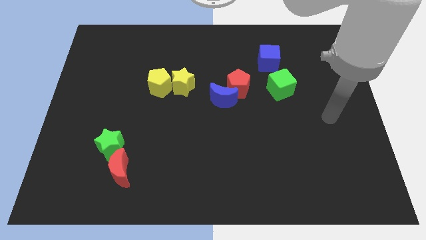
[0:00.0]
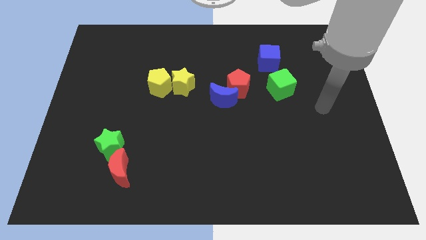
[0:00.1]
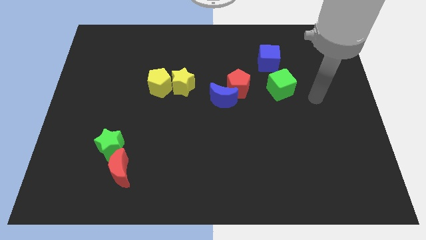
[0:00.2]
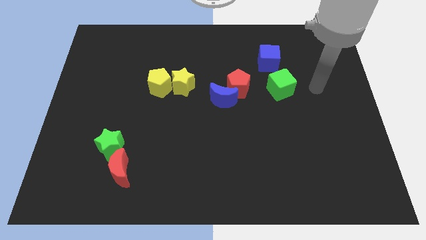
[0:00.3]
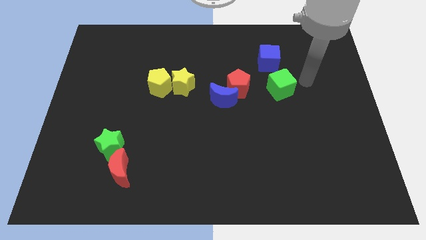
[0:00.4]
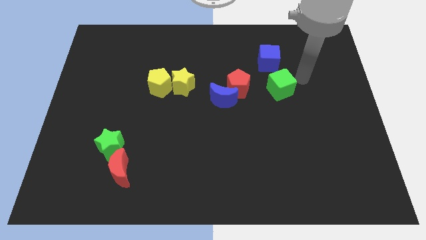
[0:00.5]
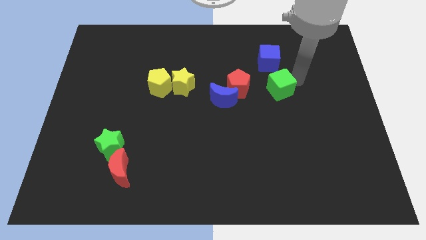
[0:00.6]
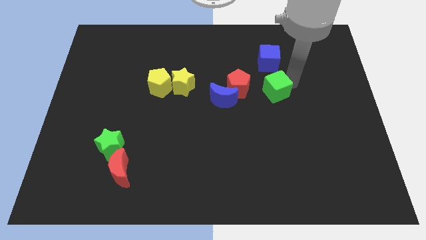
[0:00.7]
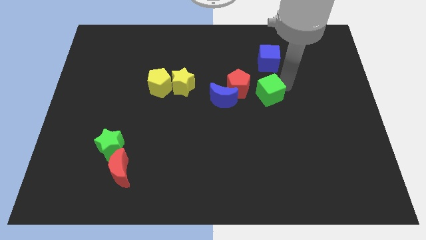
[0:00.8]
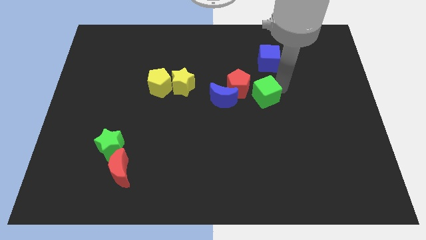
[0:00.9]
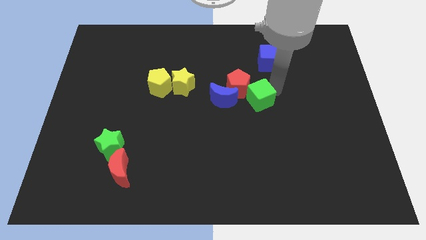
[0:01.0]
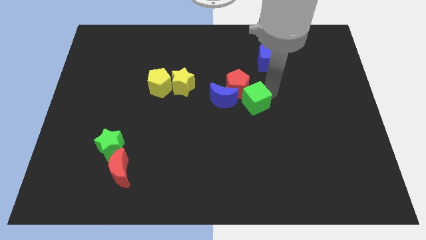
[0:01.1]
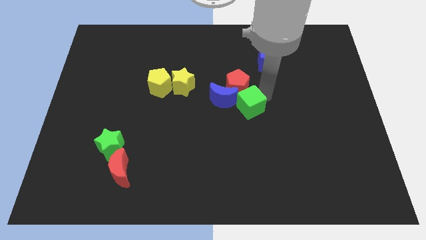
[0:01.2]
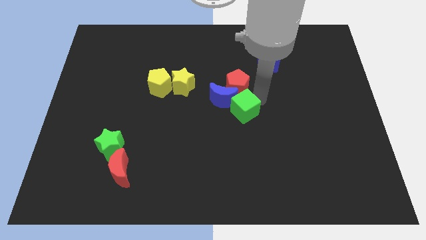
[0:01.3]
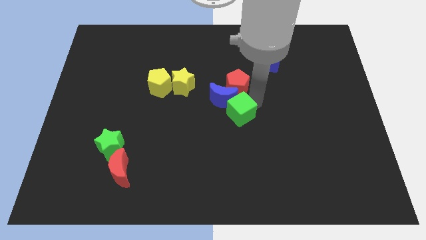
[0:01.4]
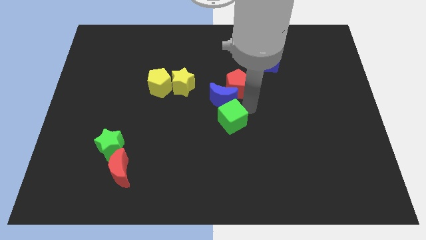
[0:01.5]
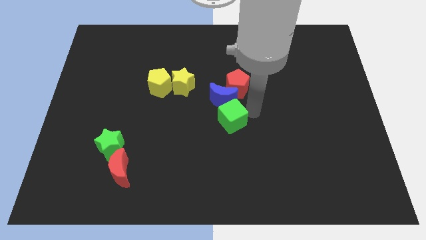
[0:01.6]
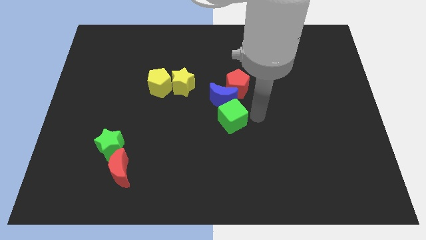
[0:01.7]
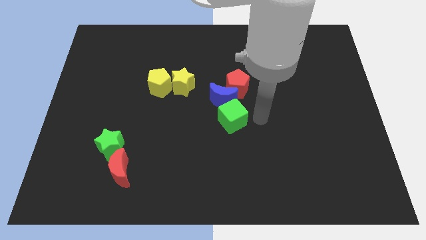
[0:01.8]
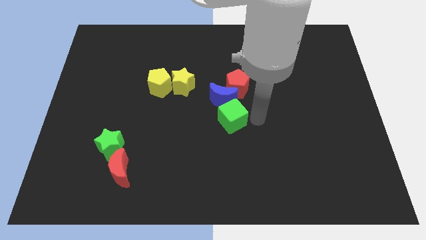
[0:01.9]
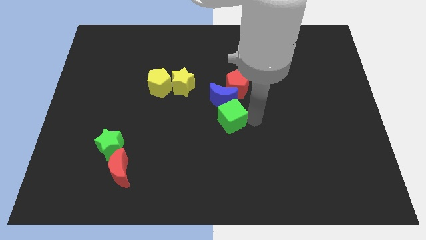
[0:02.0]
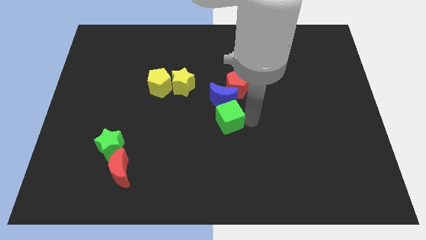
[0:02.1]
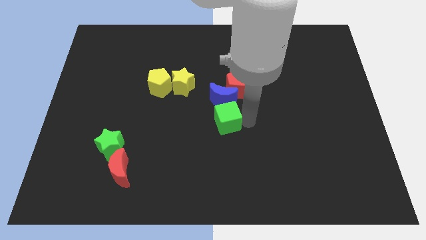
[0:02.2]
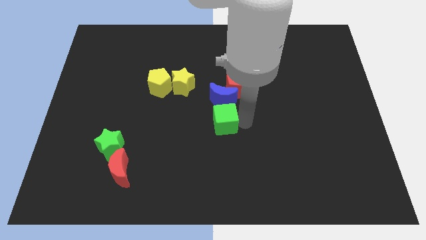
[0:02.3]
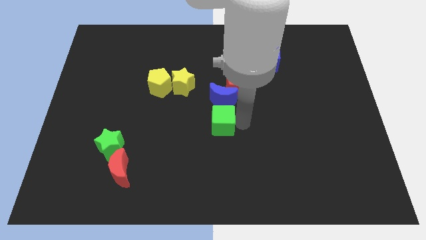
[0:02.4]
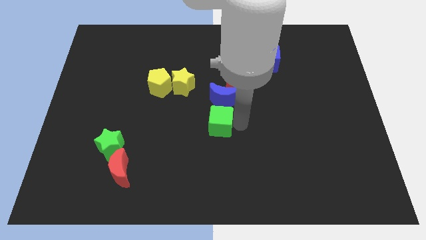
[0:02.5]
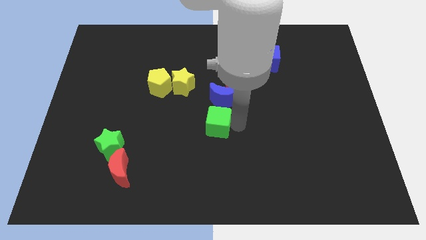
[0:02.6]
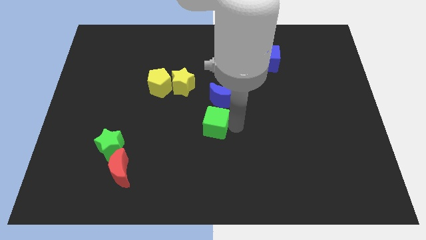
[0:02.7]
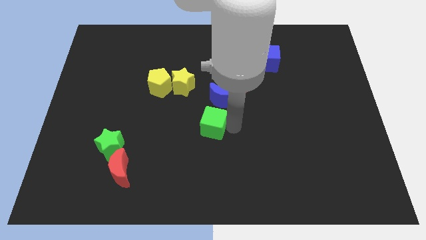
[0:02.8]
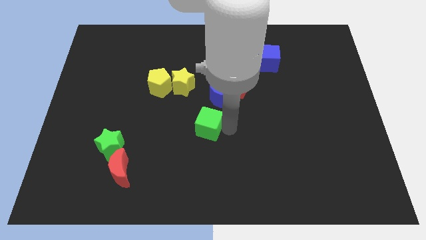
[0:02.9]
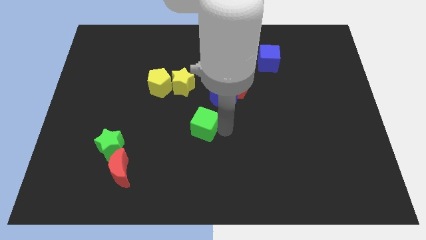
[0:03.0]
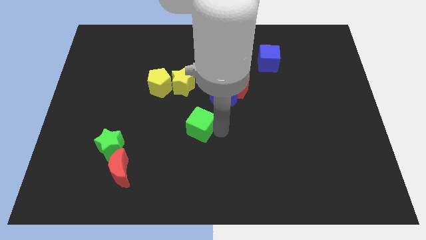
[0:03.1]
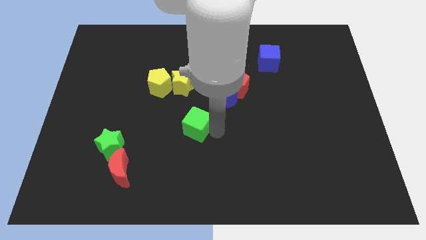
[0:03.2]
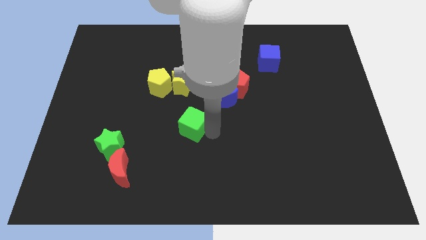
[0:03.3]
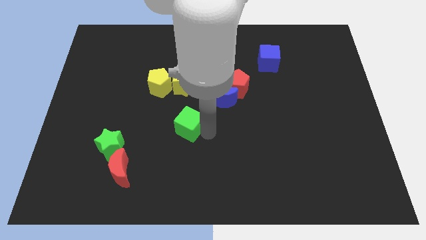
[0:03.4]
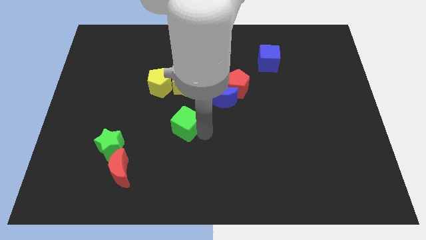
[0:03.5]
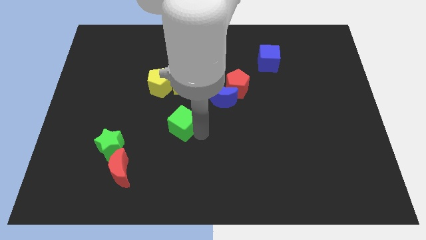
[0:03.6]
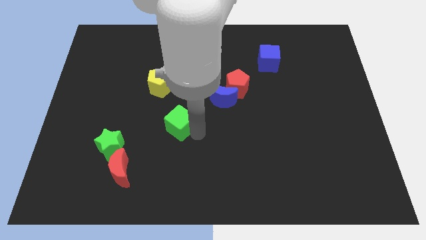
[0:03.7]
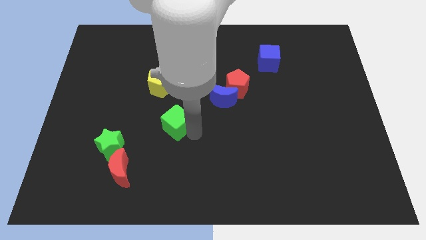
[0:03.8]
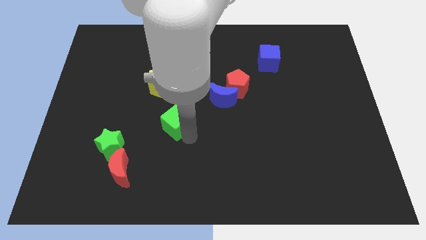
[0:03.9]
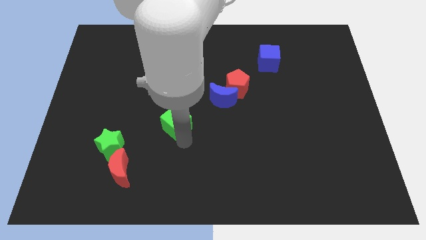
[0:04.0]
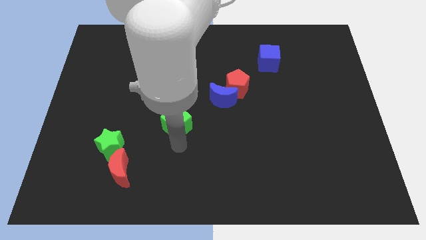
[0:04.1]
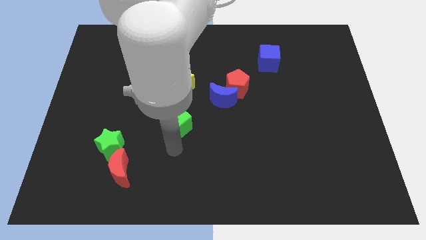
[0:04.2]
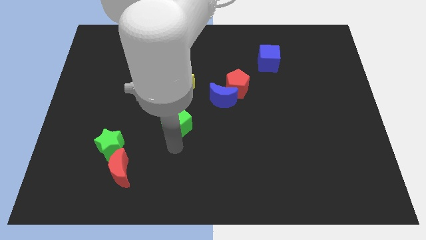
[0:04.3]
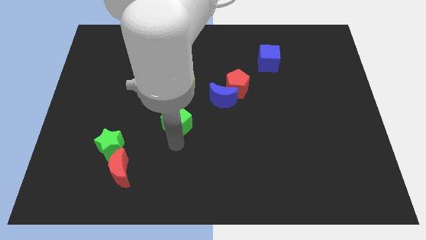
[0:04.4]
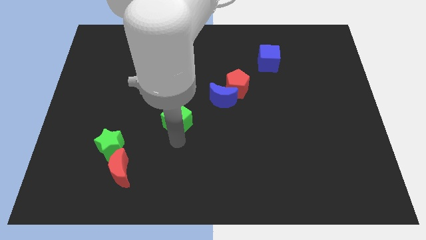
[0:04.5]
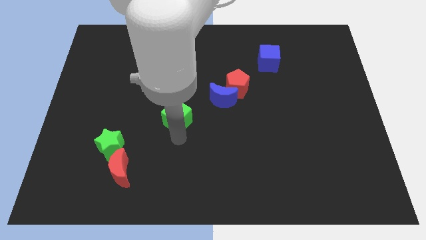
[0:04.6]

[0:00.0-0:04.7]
push the green cube to the bottom right of the yellow pentagon

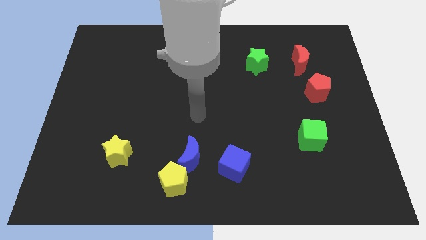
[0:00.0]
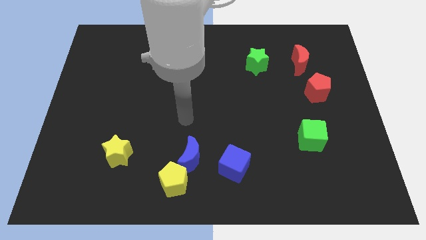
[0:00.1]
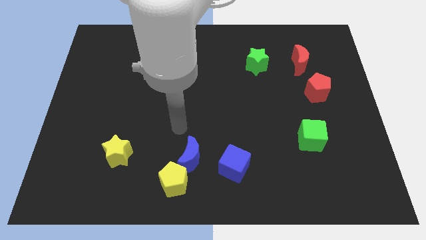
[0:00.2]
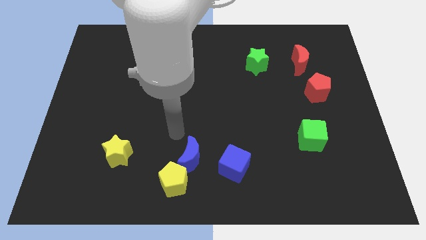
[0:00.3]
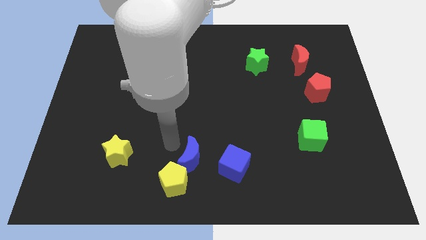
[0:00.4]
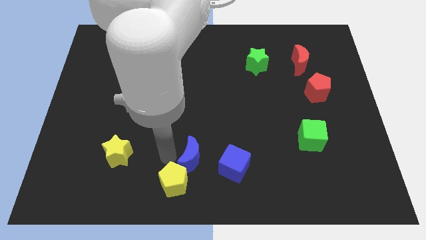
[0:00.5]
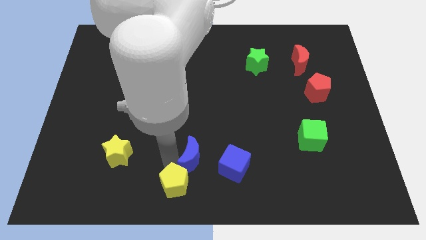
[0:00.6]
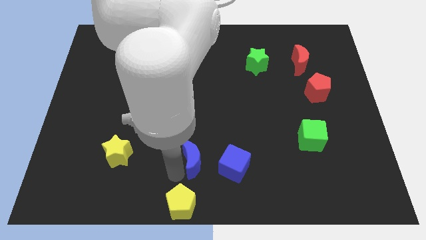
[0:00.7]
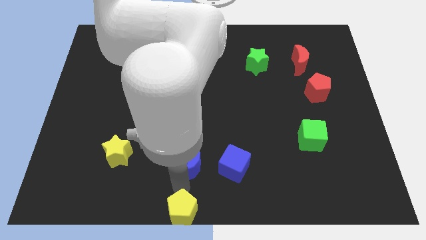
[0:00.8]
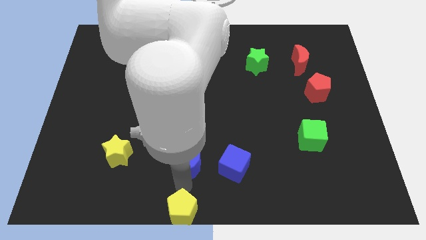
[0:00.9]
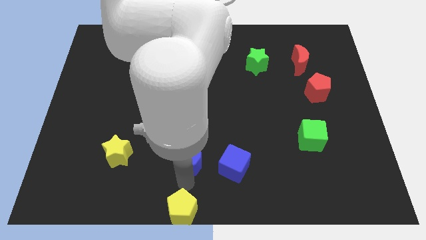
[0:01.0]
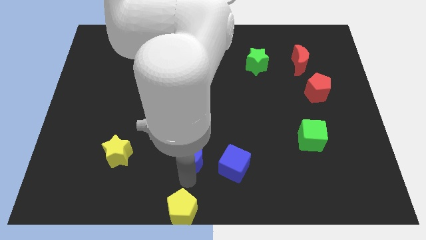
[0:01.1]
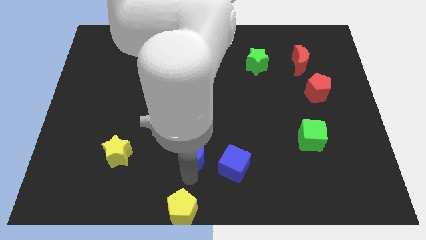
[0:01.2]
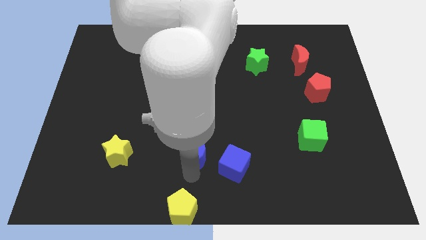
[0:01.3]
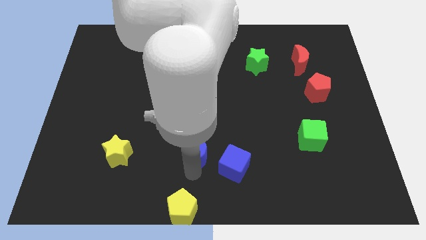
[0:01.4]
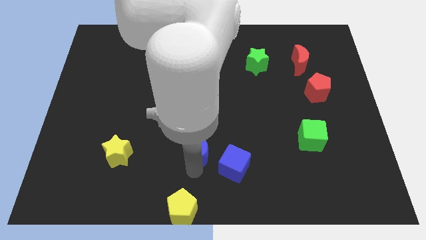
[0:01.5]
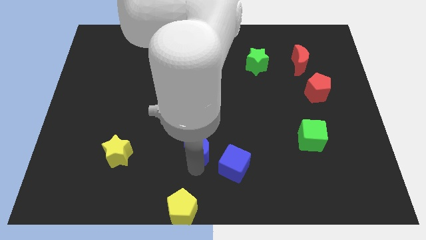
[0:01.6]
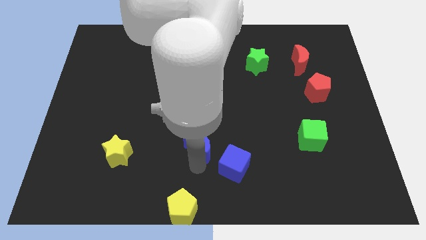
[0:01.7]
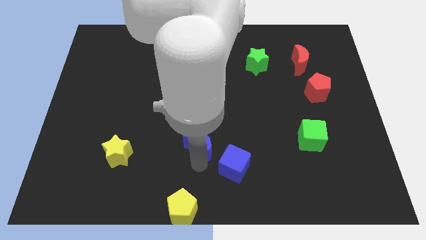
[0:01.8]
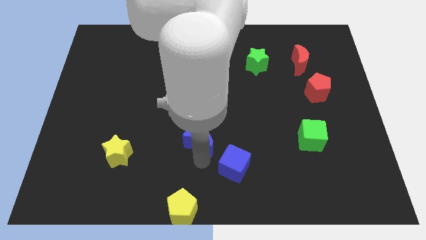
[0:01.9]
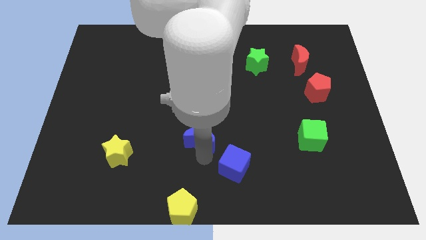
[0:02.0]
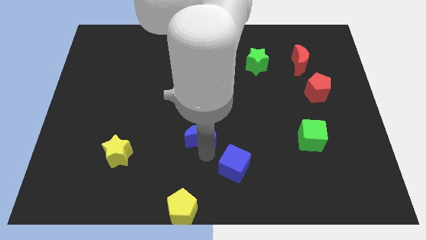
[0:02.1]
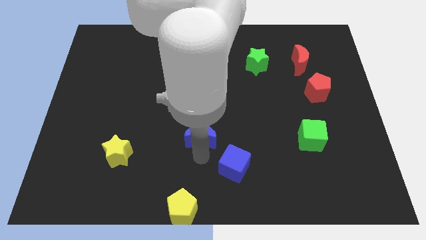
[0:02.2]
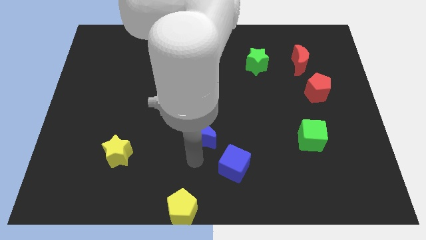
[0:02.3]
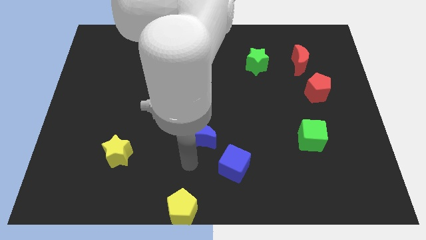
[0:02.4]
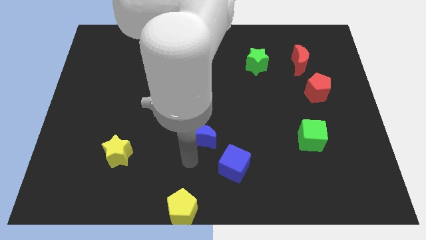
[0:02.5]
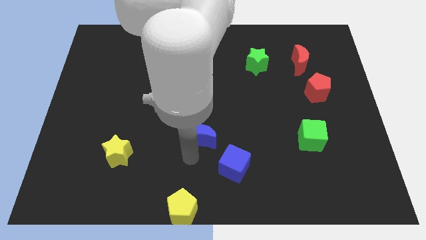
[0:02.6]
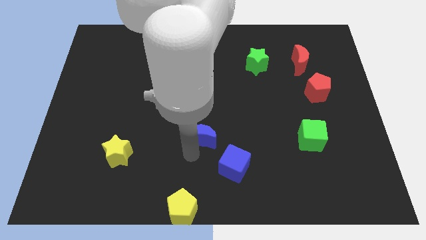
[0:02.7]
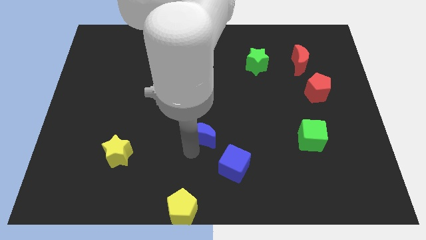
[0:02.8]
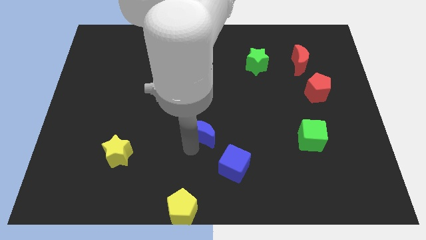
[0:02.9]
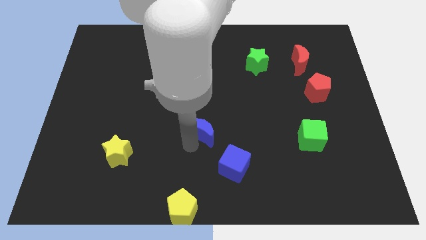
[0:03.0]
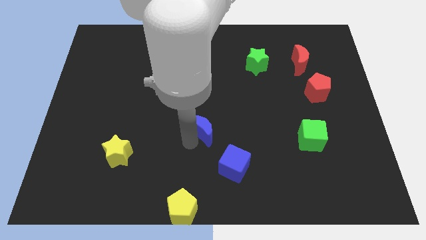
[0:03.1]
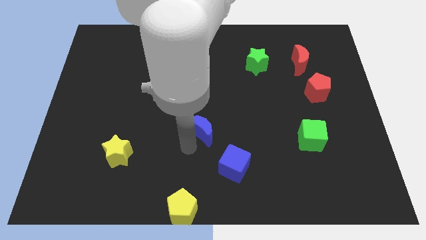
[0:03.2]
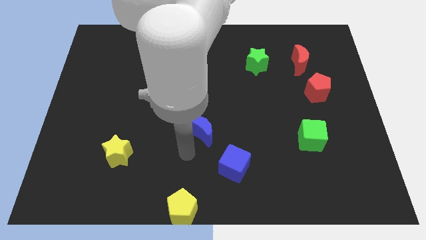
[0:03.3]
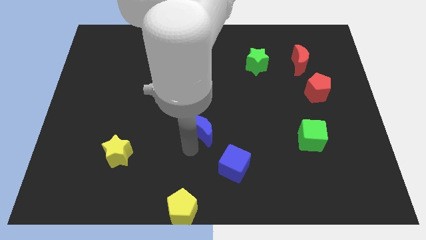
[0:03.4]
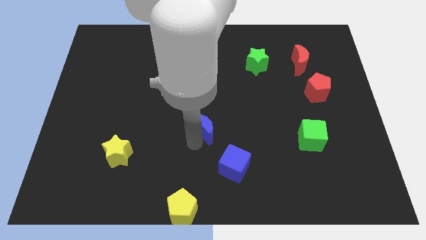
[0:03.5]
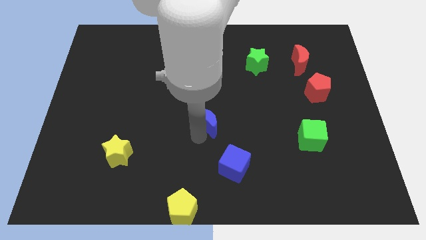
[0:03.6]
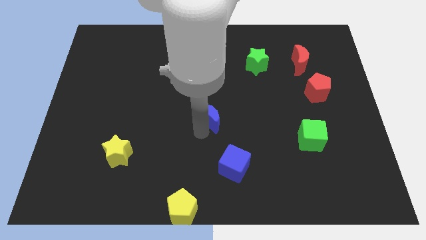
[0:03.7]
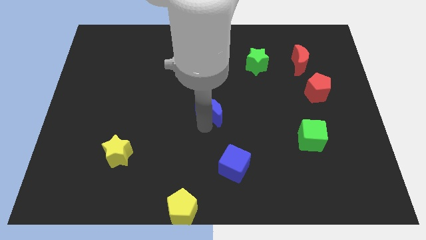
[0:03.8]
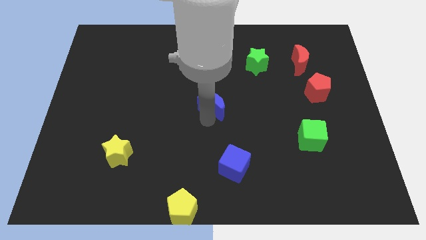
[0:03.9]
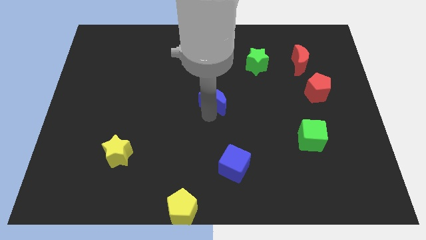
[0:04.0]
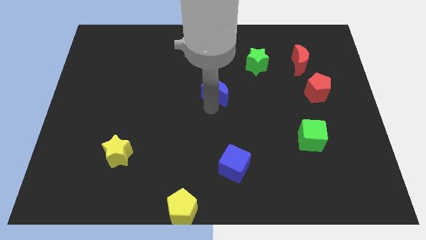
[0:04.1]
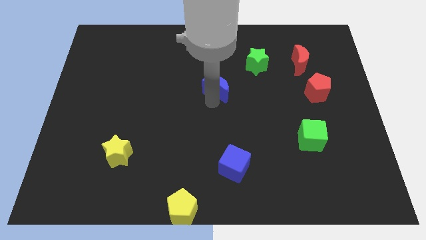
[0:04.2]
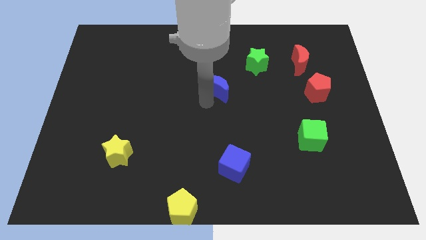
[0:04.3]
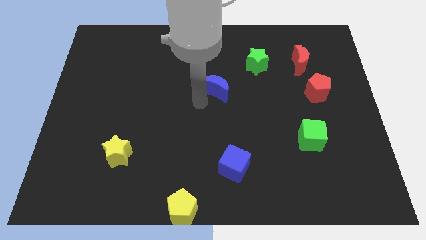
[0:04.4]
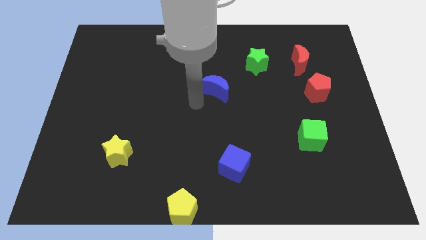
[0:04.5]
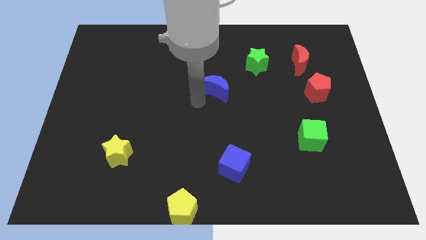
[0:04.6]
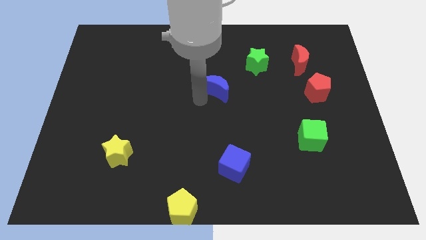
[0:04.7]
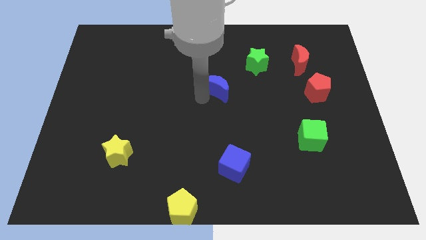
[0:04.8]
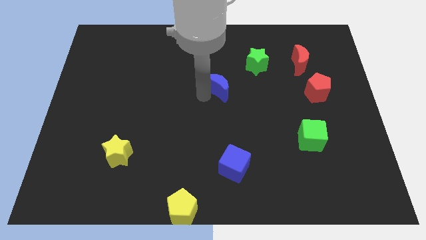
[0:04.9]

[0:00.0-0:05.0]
slide the blue moon to the bottom left of the green star
